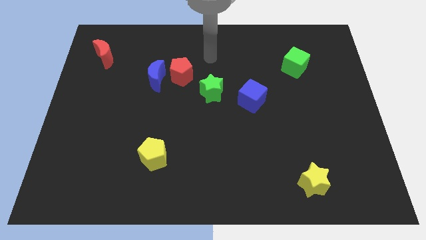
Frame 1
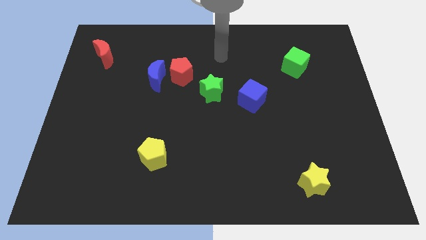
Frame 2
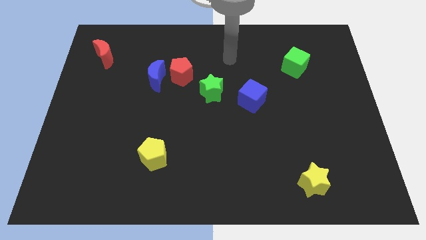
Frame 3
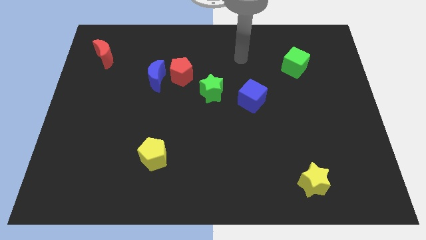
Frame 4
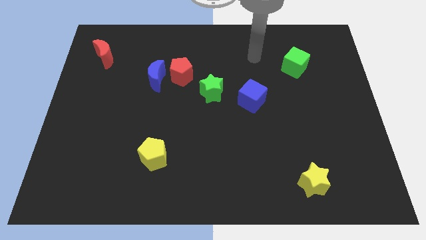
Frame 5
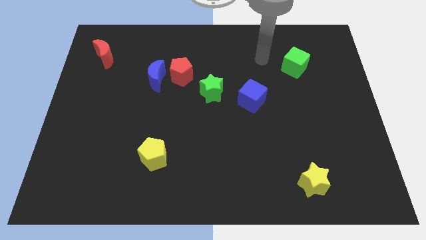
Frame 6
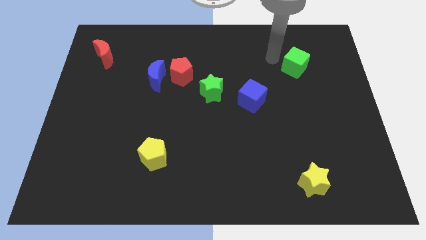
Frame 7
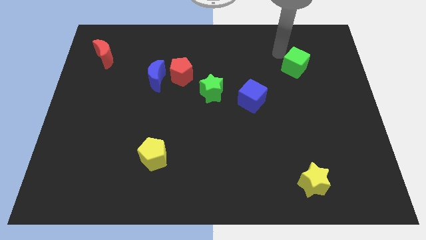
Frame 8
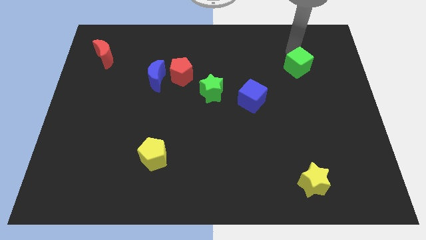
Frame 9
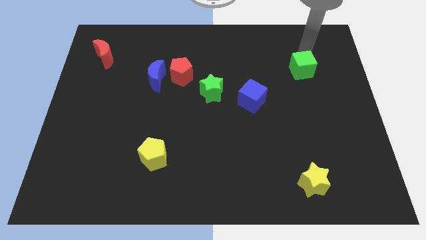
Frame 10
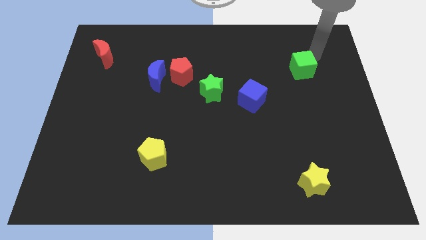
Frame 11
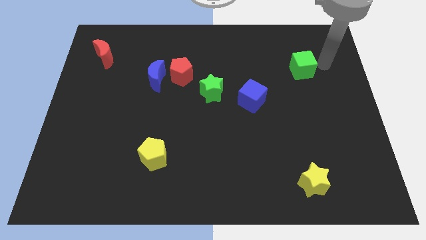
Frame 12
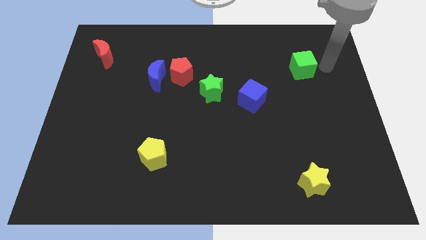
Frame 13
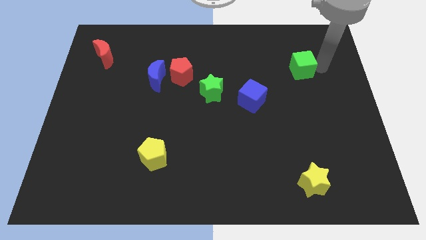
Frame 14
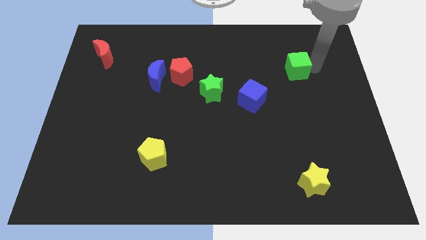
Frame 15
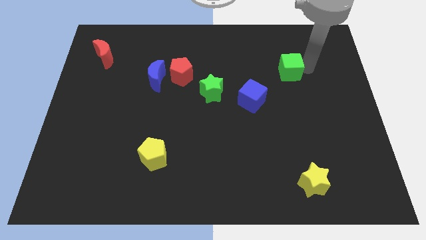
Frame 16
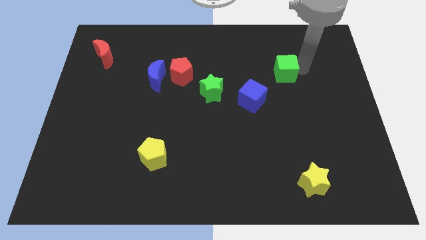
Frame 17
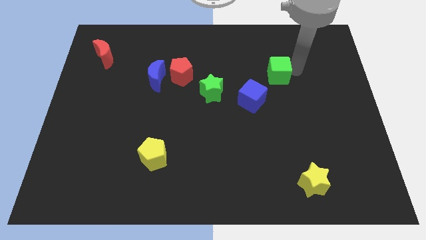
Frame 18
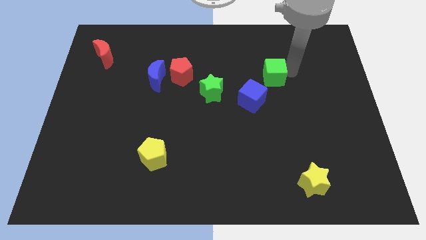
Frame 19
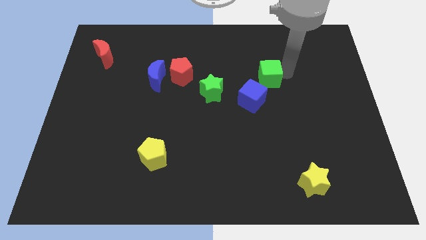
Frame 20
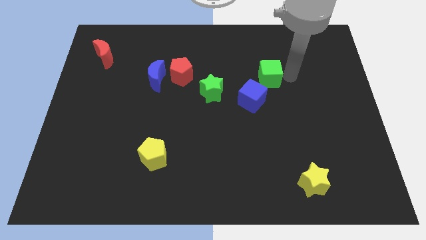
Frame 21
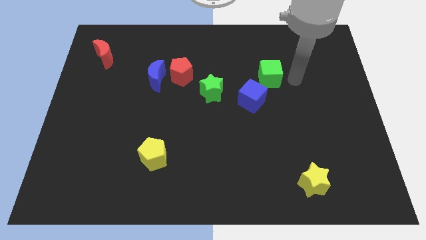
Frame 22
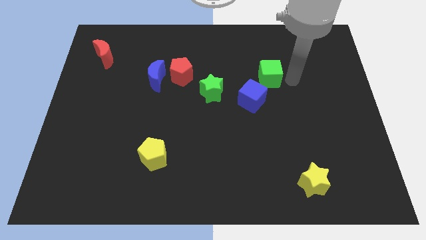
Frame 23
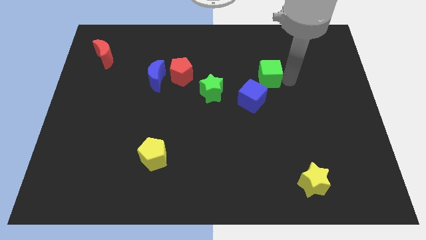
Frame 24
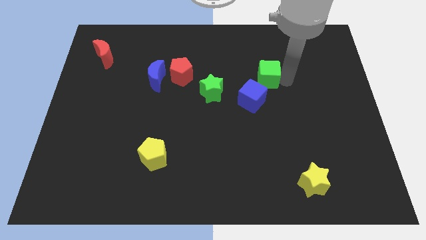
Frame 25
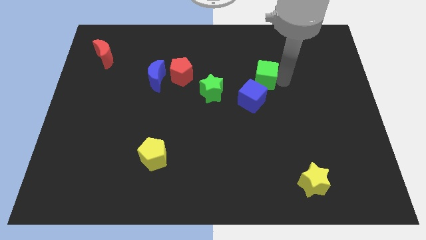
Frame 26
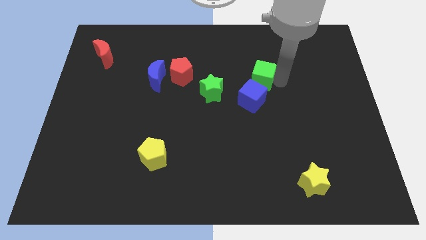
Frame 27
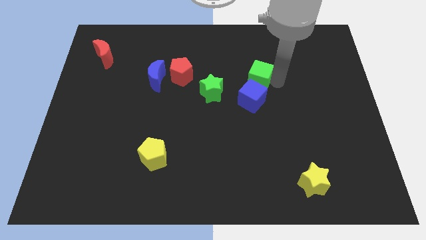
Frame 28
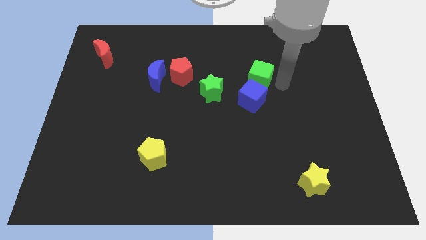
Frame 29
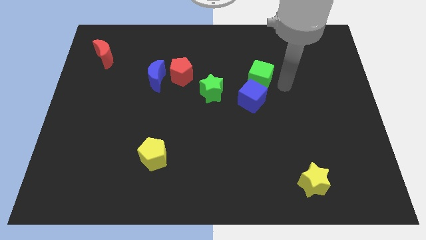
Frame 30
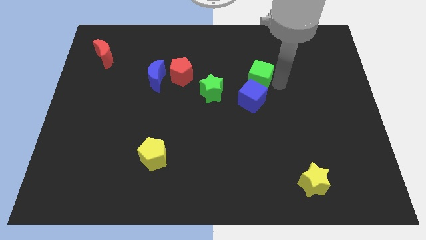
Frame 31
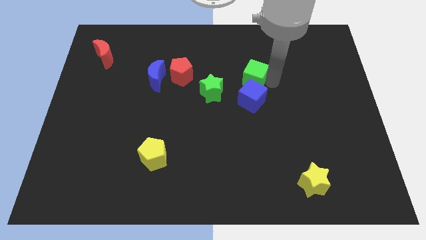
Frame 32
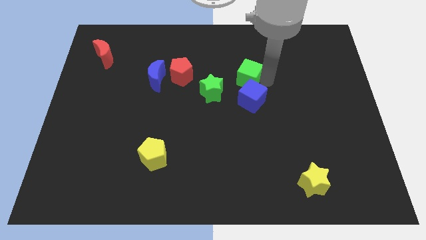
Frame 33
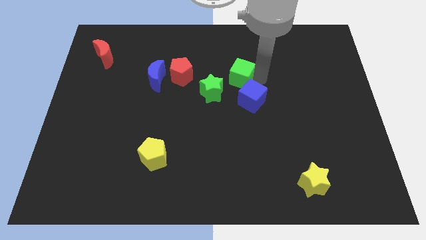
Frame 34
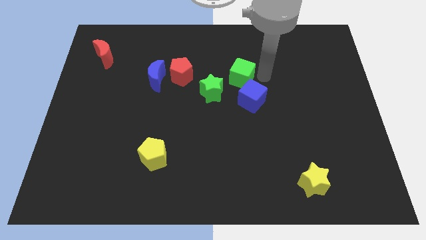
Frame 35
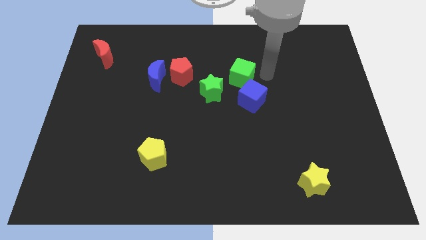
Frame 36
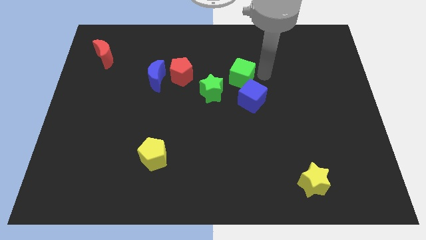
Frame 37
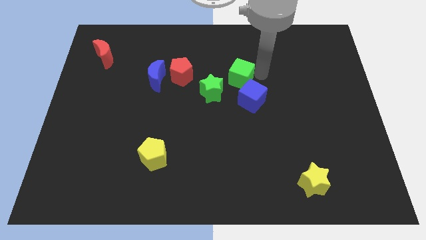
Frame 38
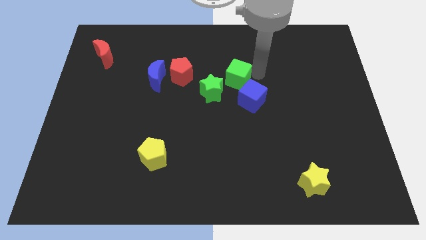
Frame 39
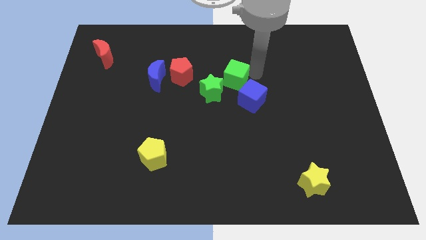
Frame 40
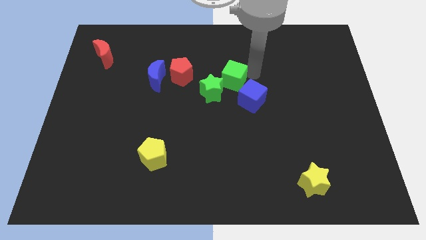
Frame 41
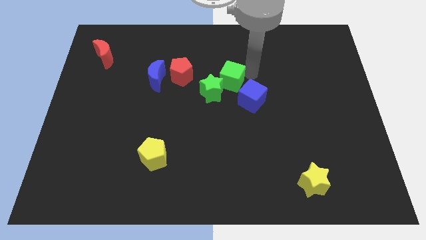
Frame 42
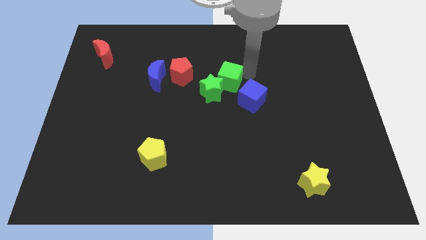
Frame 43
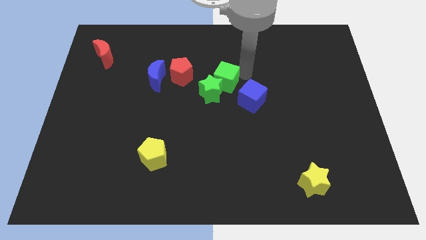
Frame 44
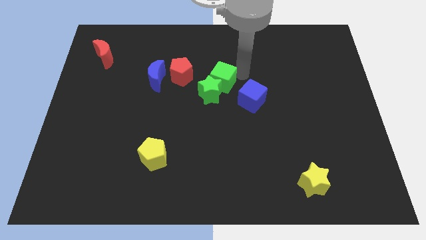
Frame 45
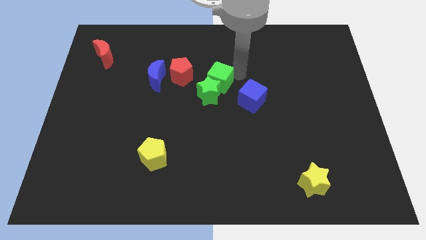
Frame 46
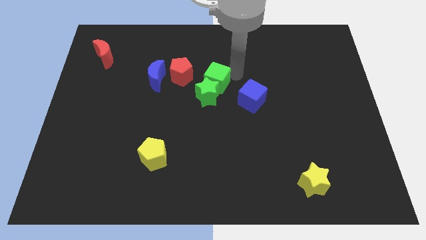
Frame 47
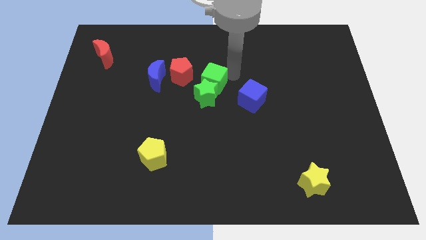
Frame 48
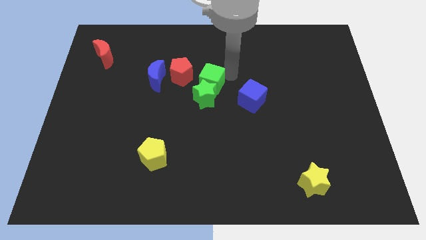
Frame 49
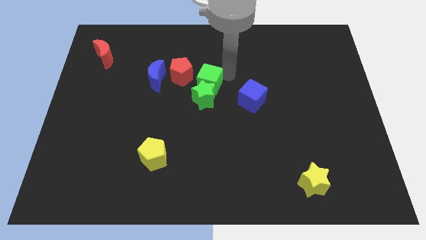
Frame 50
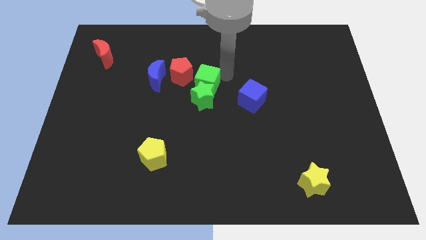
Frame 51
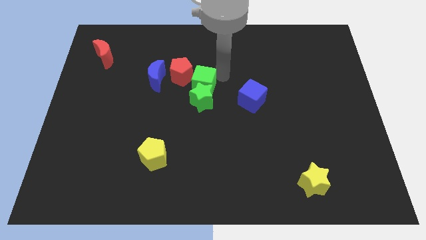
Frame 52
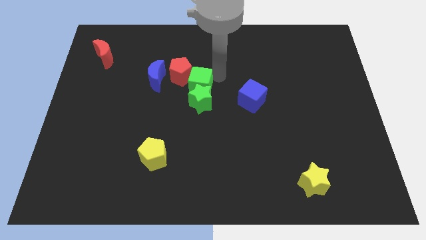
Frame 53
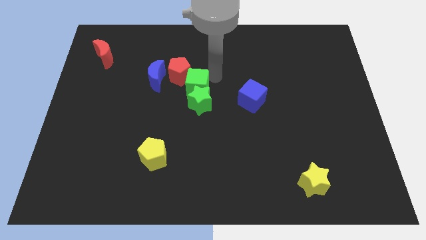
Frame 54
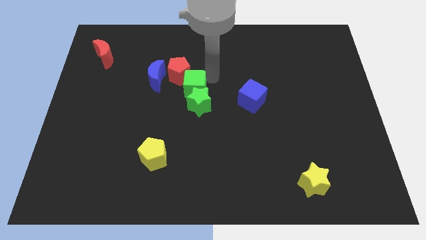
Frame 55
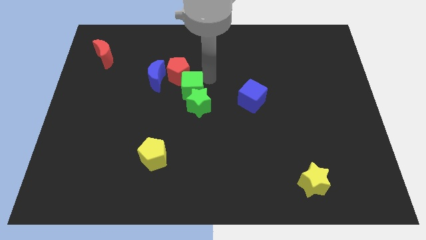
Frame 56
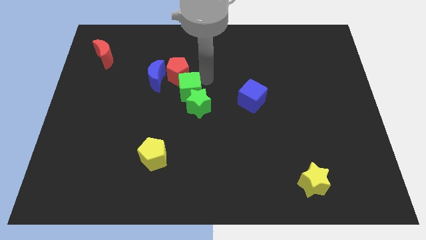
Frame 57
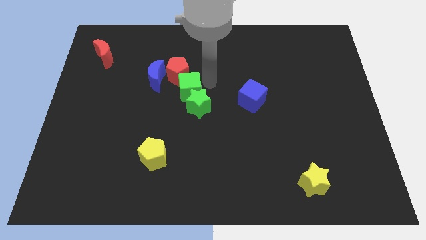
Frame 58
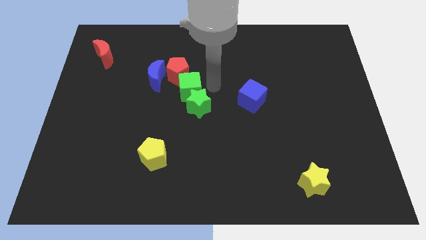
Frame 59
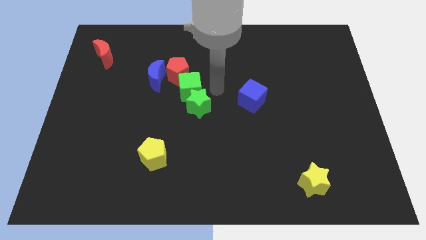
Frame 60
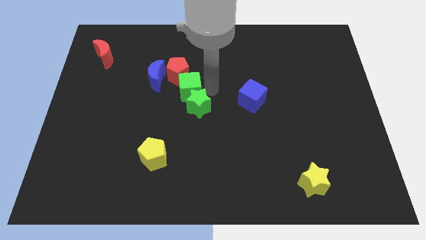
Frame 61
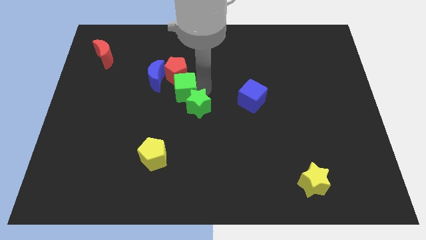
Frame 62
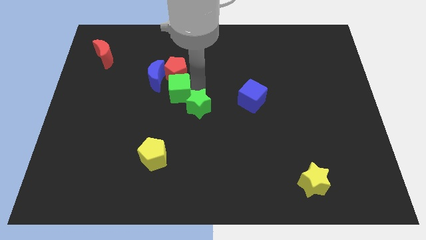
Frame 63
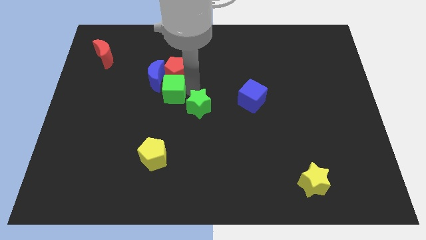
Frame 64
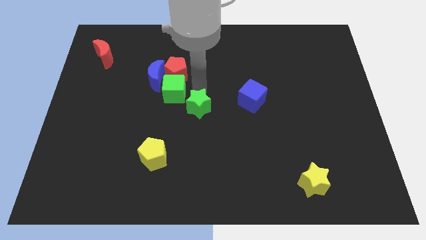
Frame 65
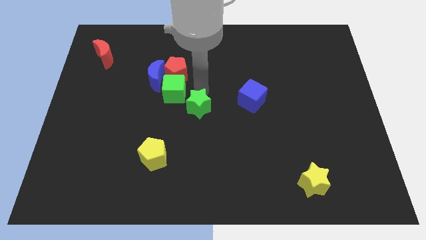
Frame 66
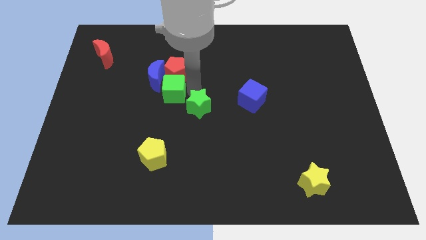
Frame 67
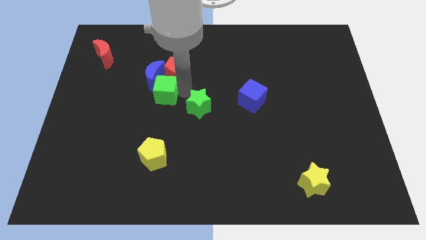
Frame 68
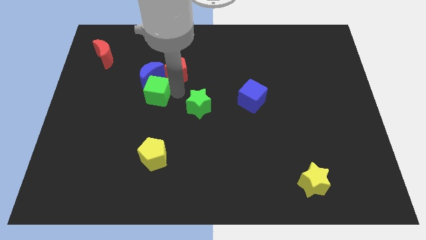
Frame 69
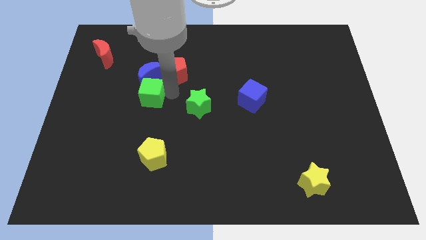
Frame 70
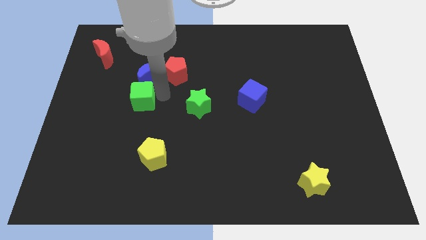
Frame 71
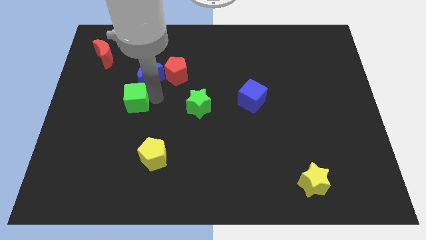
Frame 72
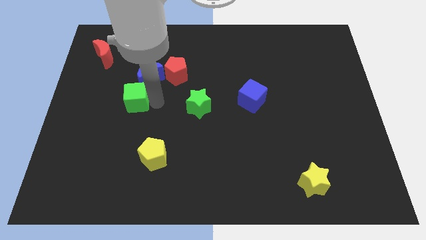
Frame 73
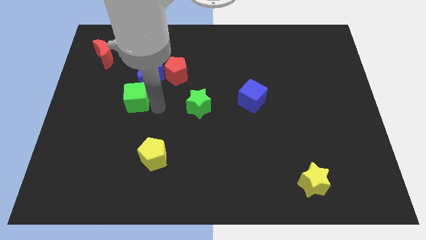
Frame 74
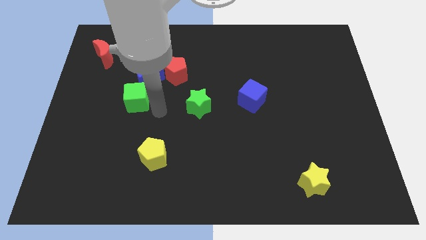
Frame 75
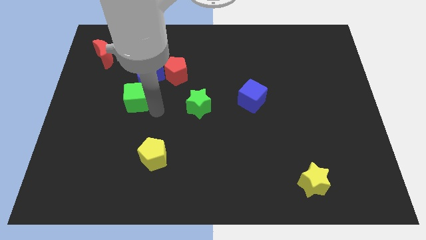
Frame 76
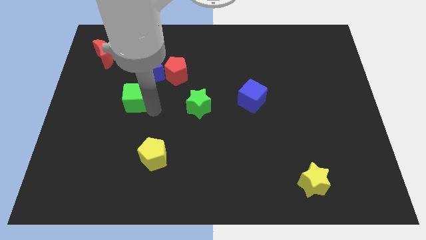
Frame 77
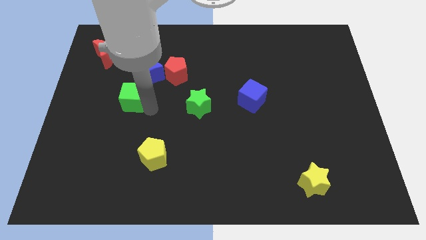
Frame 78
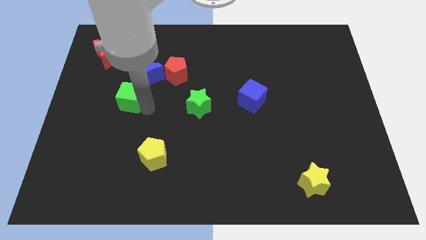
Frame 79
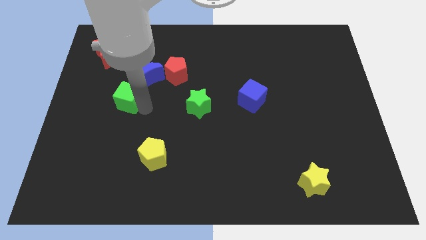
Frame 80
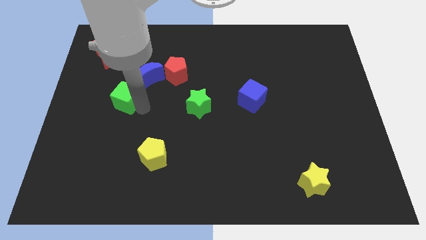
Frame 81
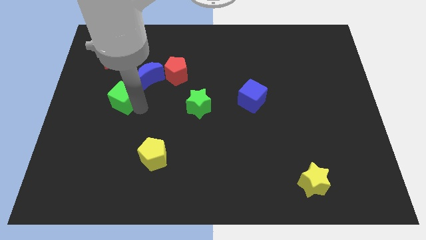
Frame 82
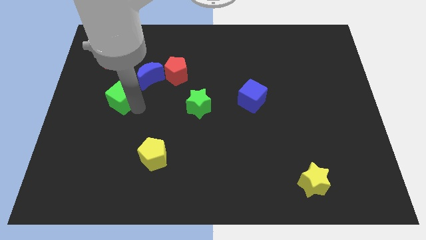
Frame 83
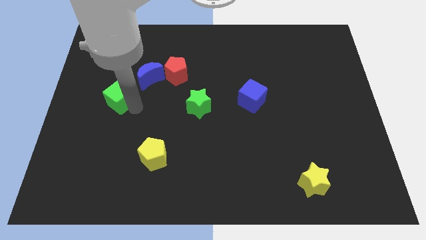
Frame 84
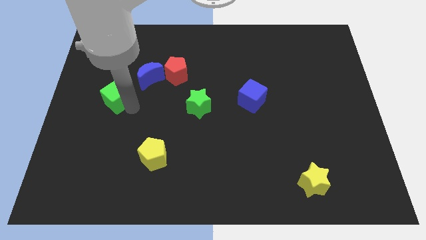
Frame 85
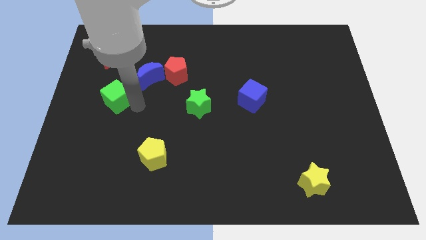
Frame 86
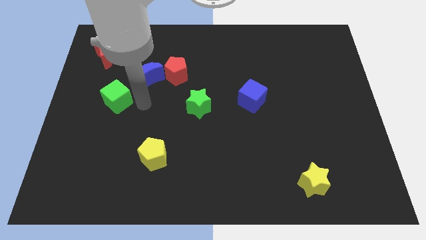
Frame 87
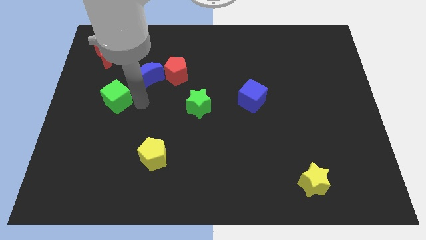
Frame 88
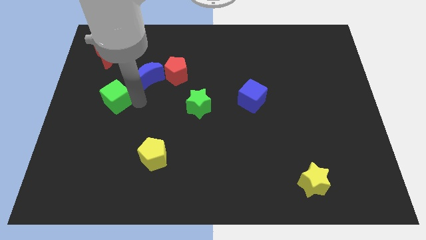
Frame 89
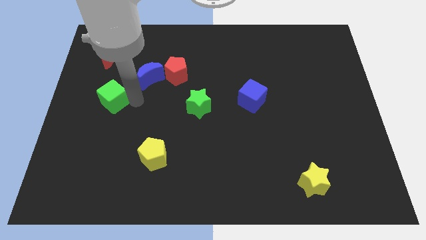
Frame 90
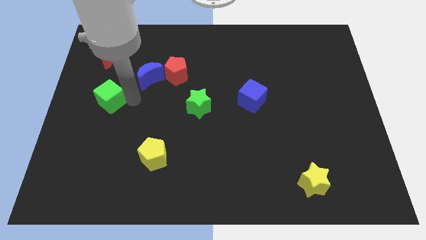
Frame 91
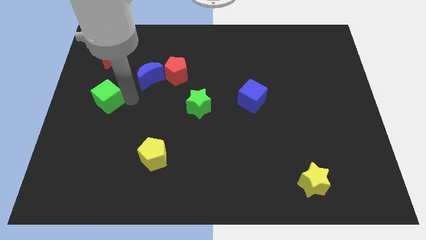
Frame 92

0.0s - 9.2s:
move the green cube to the left side
